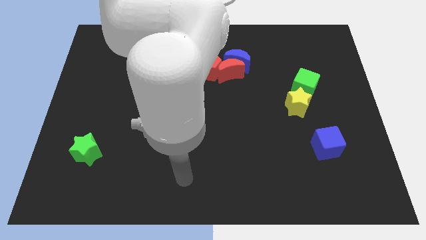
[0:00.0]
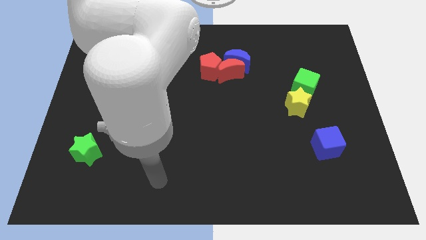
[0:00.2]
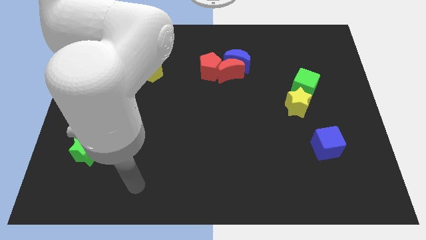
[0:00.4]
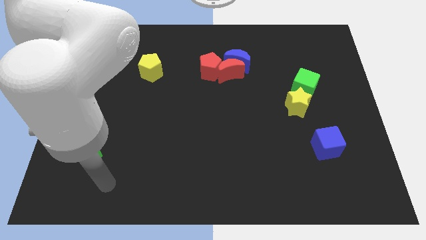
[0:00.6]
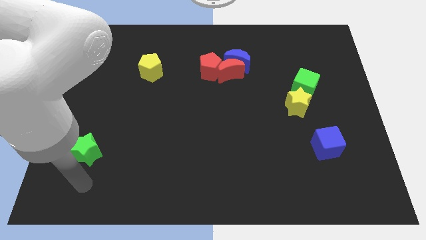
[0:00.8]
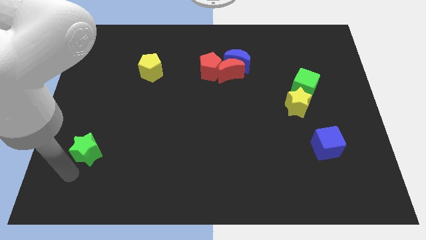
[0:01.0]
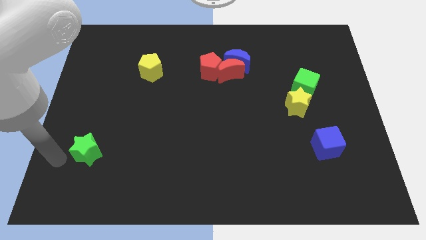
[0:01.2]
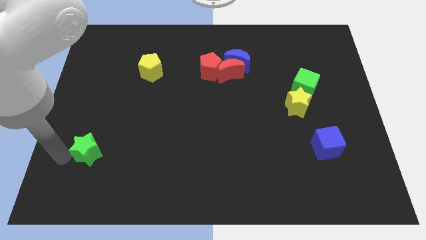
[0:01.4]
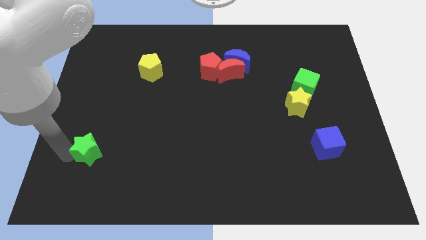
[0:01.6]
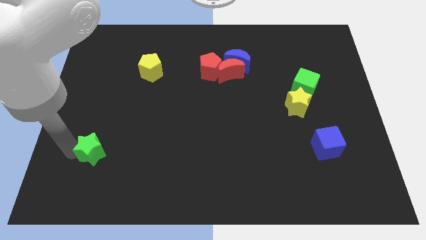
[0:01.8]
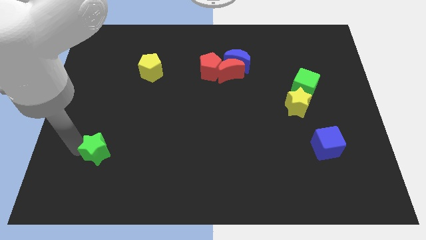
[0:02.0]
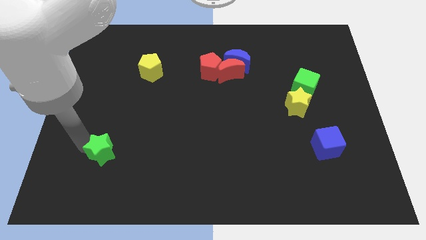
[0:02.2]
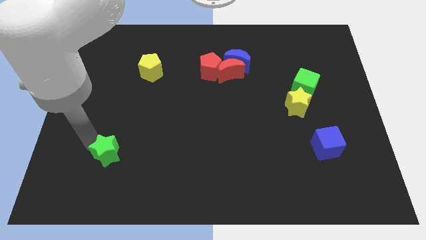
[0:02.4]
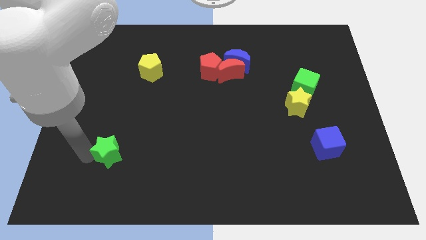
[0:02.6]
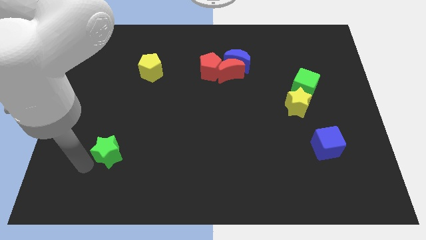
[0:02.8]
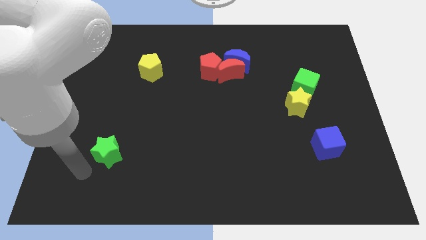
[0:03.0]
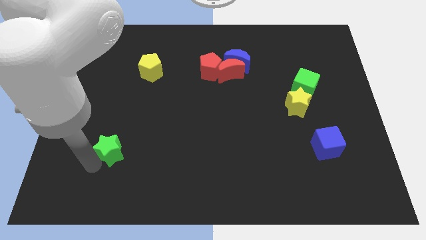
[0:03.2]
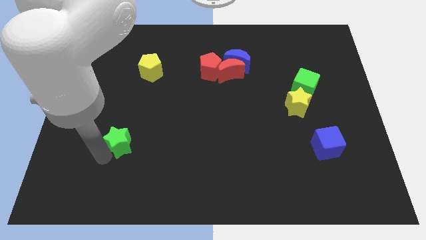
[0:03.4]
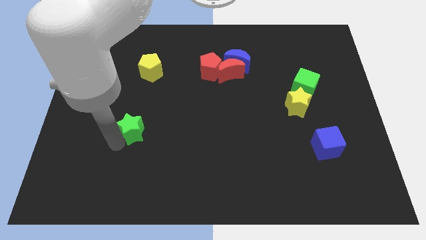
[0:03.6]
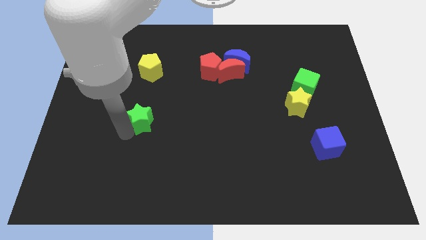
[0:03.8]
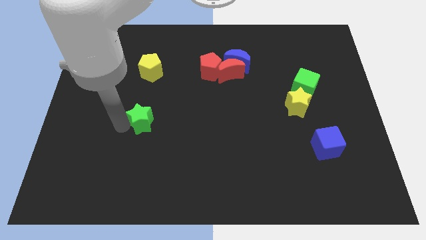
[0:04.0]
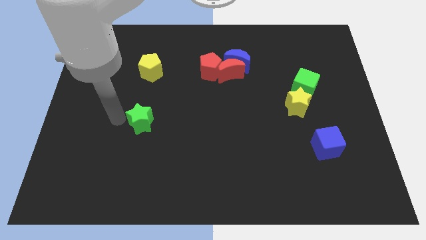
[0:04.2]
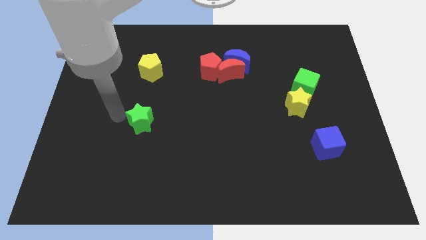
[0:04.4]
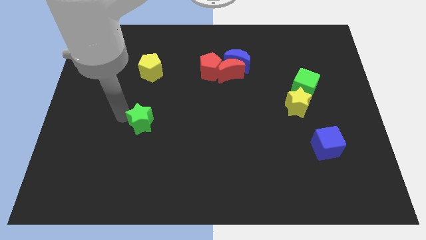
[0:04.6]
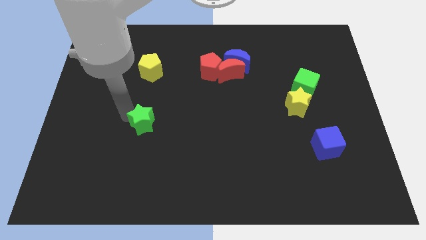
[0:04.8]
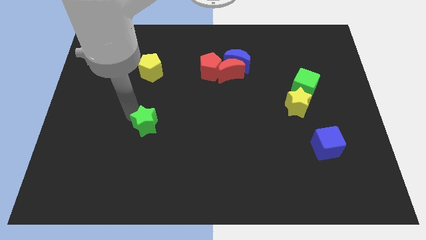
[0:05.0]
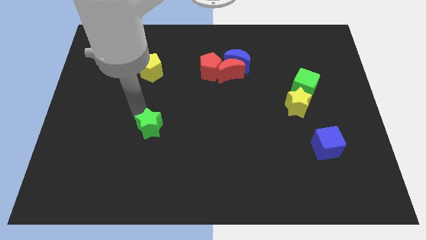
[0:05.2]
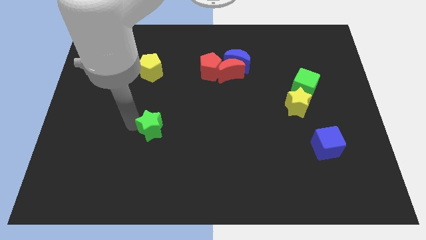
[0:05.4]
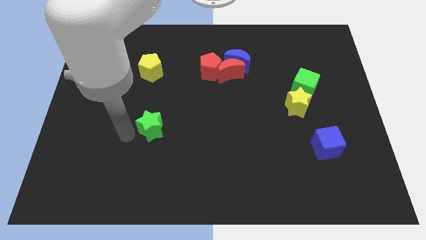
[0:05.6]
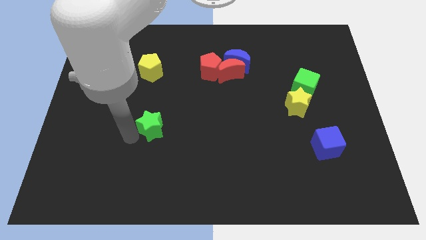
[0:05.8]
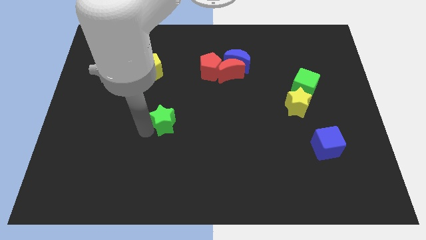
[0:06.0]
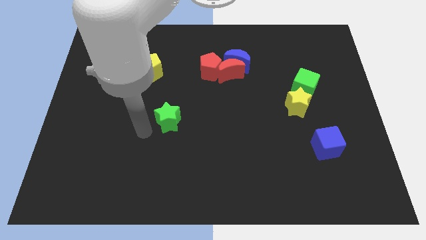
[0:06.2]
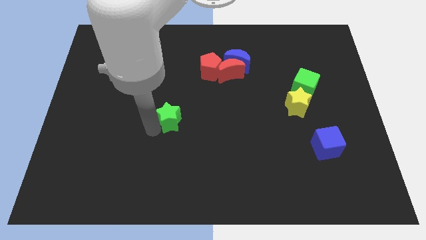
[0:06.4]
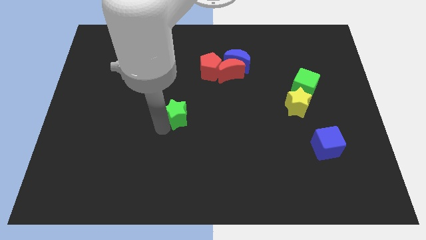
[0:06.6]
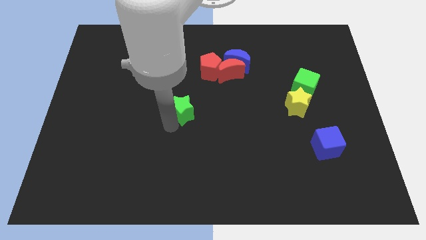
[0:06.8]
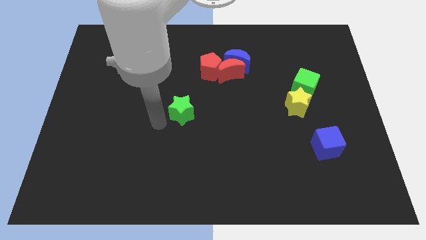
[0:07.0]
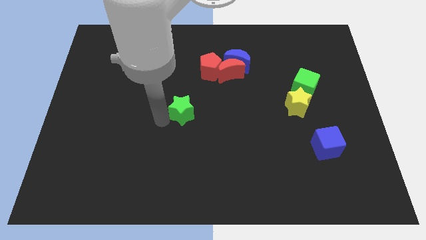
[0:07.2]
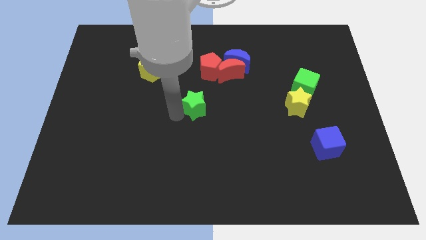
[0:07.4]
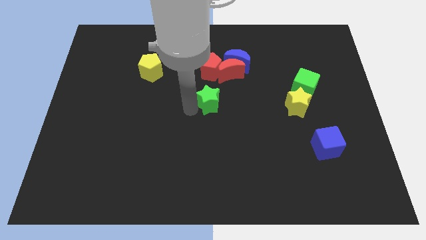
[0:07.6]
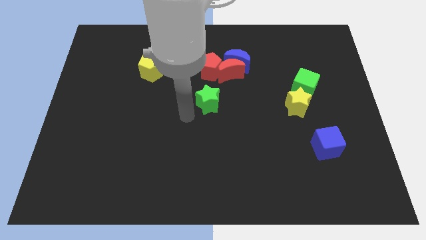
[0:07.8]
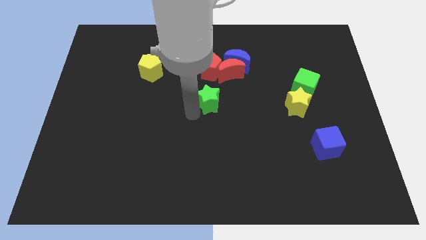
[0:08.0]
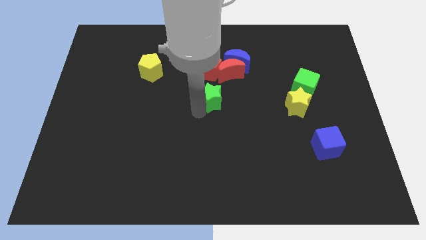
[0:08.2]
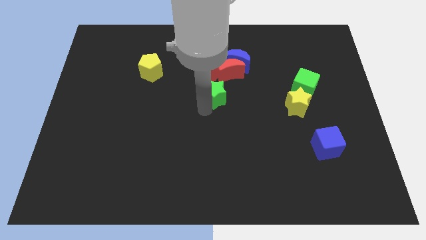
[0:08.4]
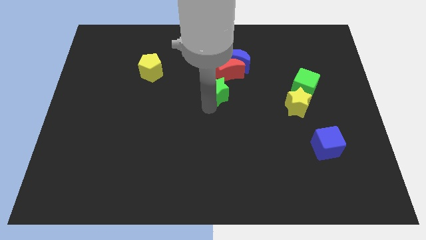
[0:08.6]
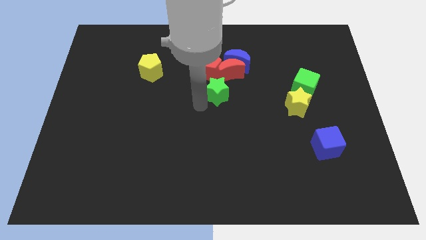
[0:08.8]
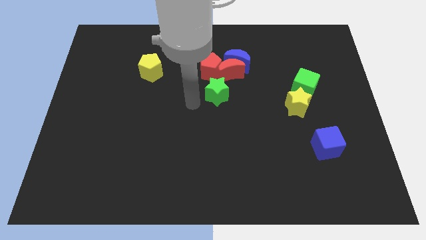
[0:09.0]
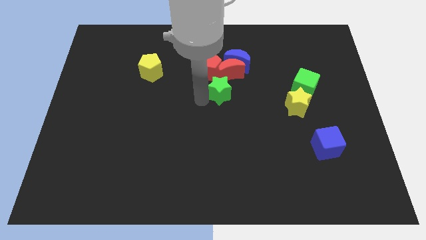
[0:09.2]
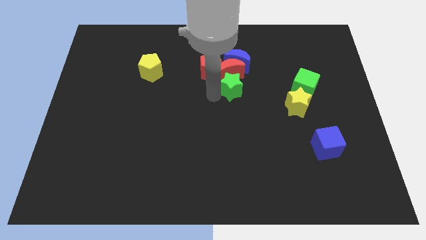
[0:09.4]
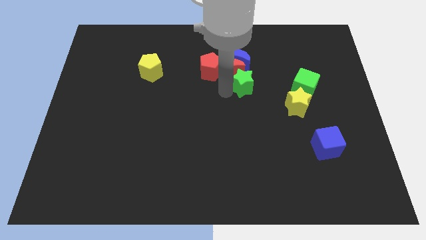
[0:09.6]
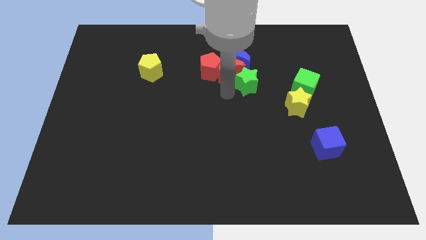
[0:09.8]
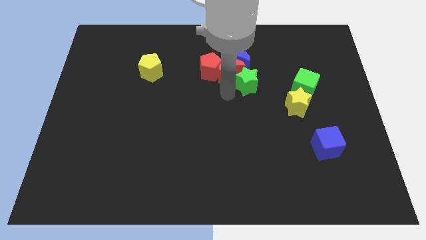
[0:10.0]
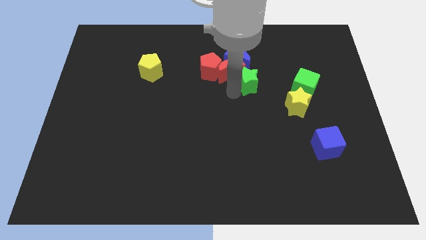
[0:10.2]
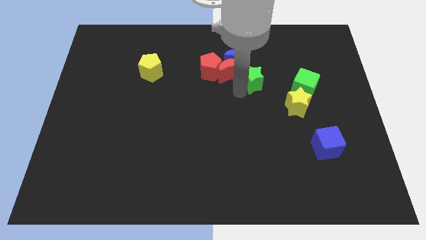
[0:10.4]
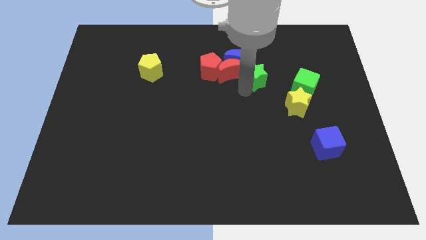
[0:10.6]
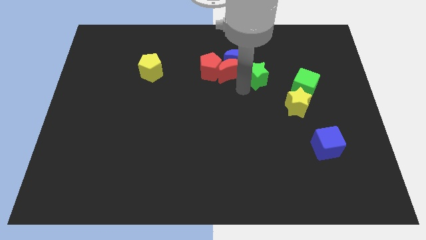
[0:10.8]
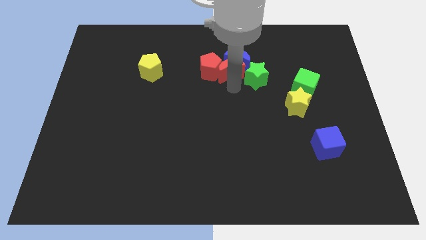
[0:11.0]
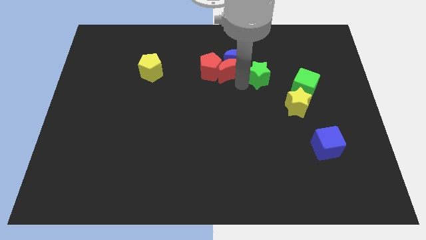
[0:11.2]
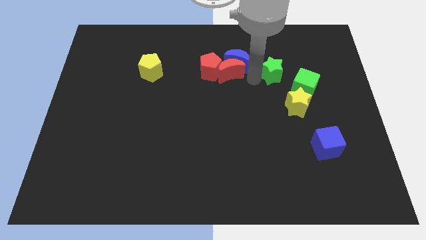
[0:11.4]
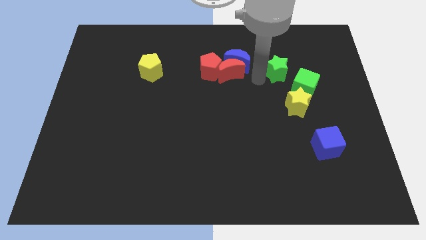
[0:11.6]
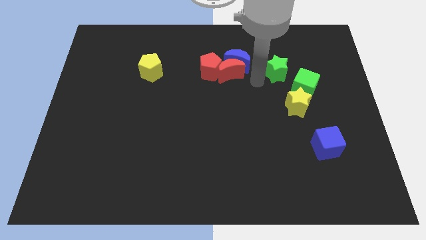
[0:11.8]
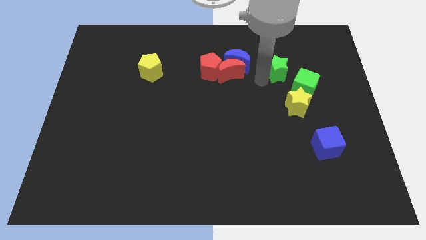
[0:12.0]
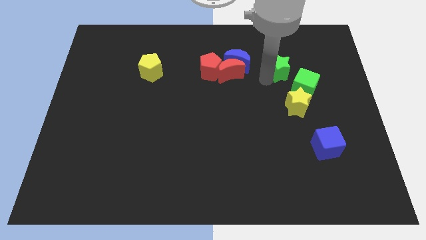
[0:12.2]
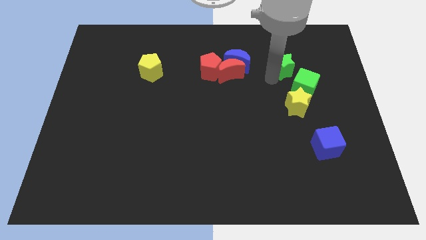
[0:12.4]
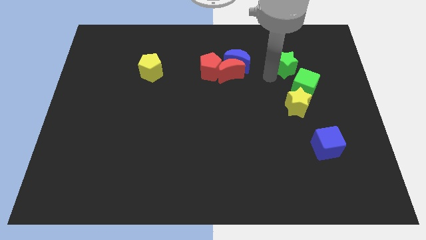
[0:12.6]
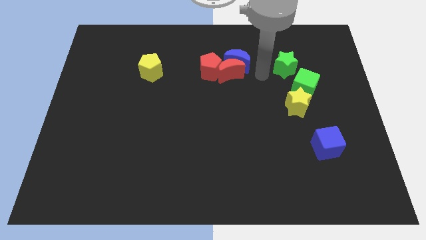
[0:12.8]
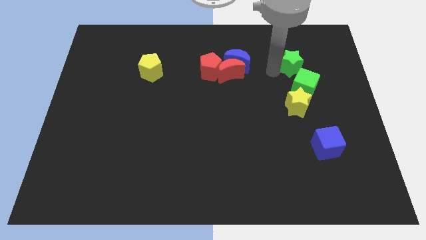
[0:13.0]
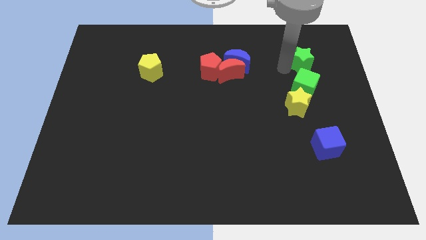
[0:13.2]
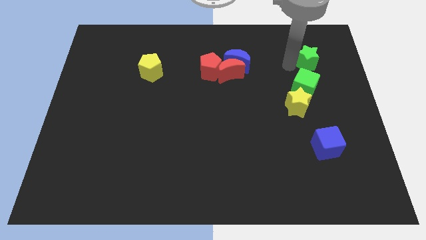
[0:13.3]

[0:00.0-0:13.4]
slide the green star diagonally up and to the right of the green cube
